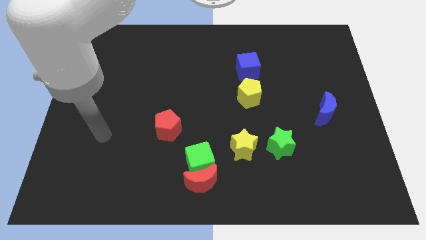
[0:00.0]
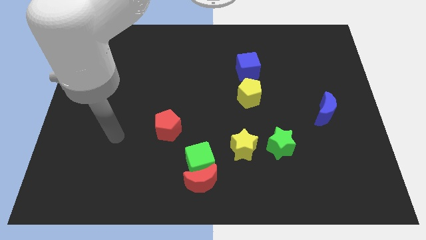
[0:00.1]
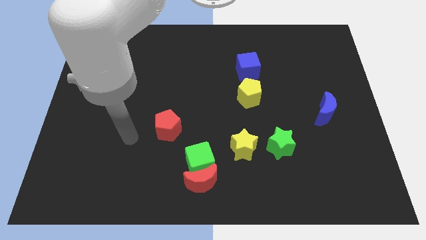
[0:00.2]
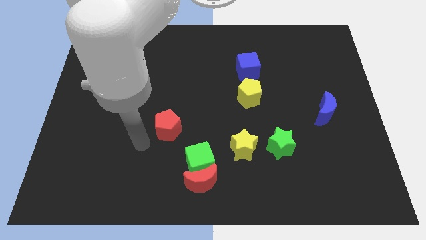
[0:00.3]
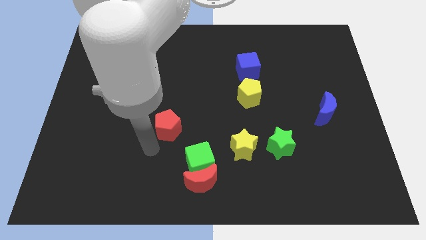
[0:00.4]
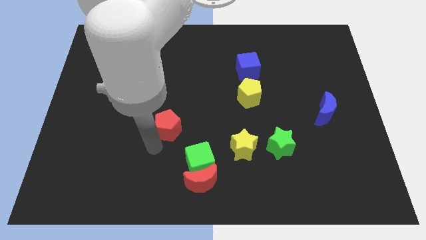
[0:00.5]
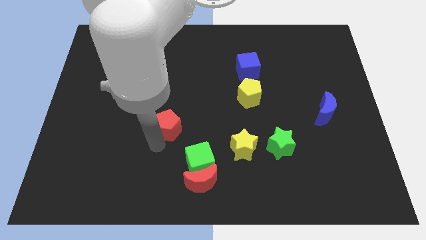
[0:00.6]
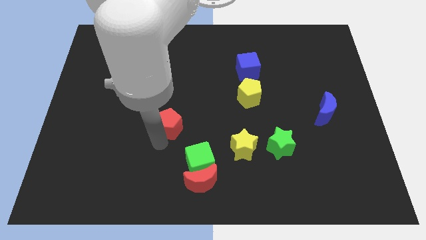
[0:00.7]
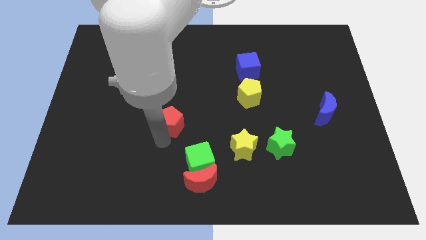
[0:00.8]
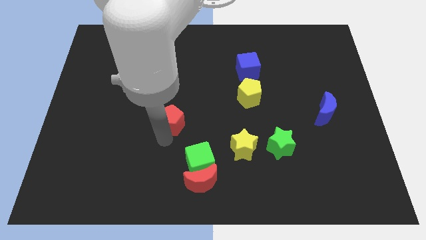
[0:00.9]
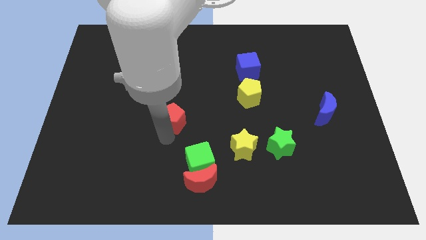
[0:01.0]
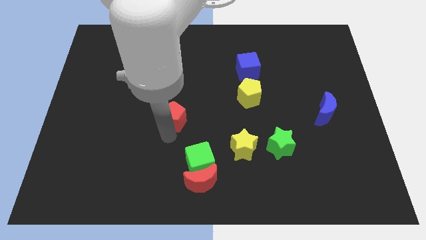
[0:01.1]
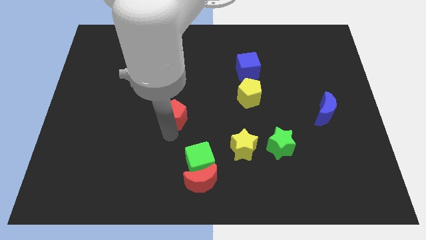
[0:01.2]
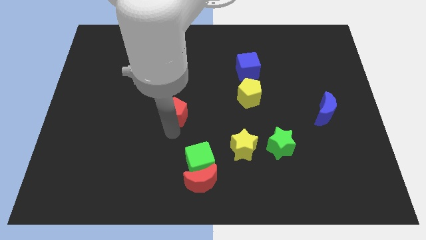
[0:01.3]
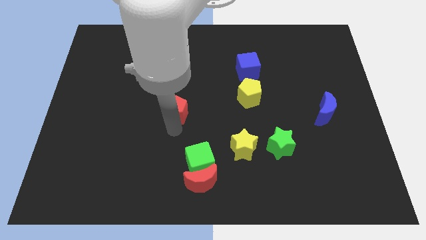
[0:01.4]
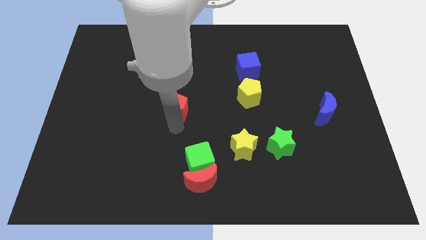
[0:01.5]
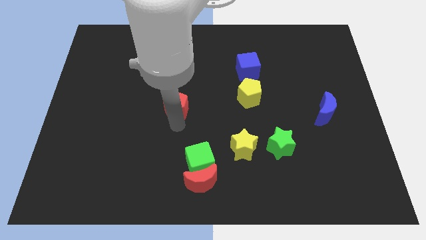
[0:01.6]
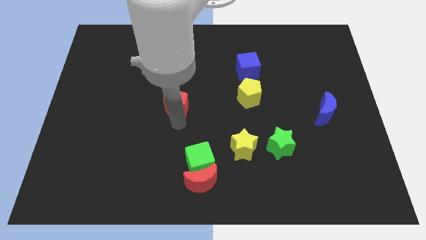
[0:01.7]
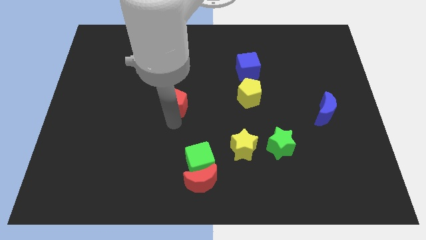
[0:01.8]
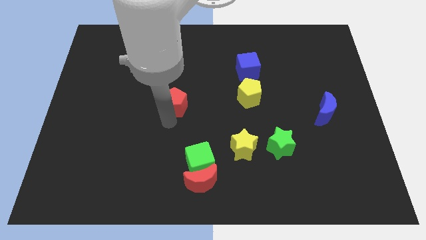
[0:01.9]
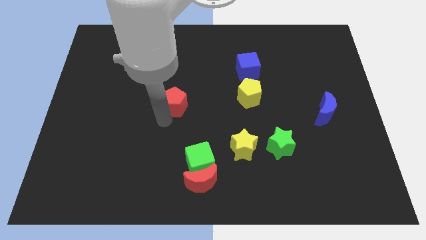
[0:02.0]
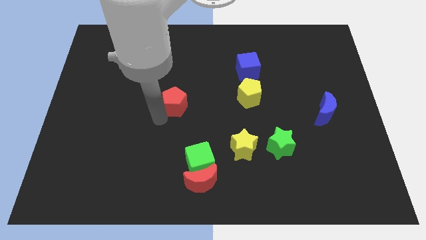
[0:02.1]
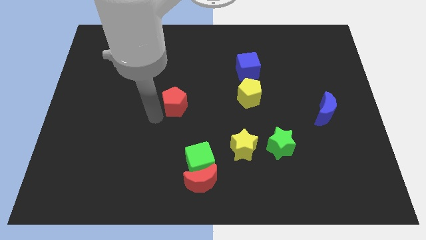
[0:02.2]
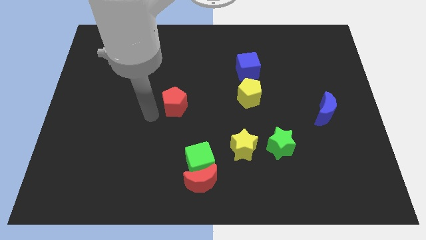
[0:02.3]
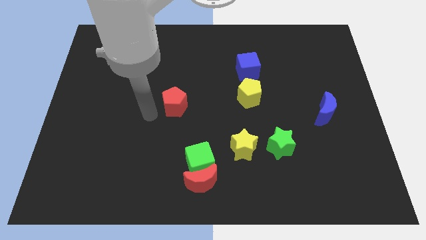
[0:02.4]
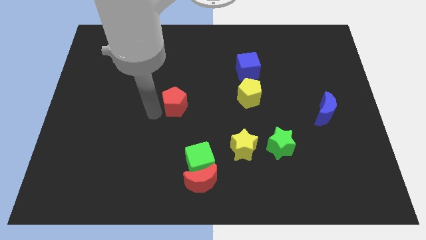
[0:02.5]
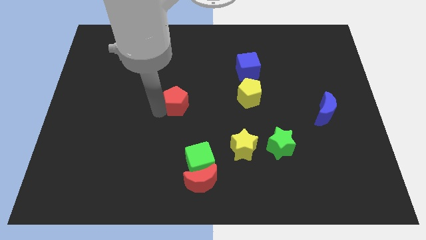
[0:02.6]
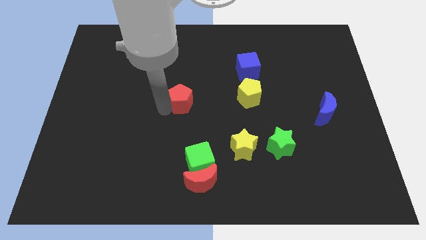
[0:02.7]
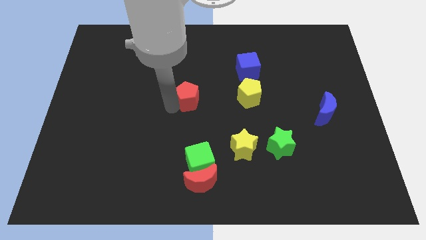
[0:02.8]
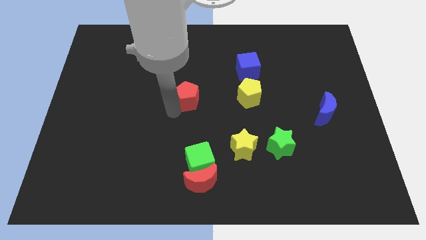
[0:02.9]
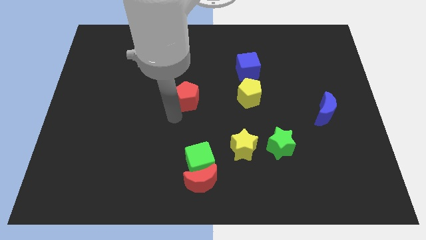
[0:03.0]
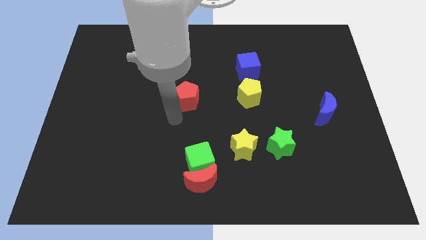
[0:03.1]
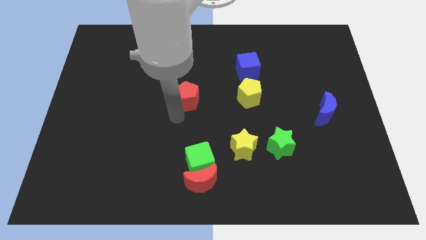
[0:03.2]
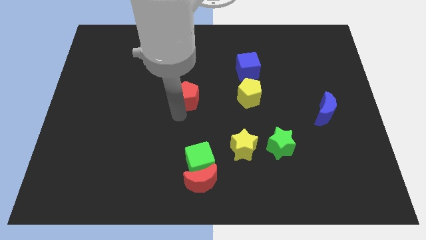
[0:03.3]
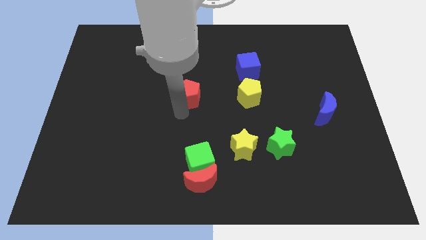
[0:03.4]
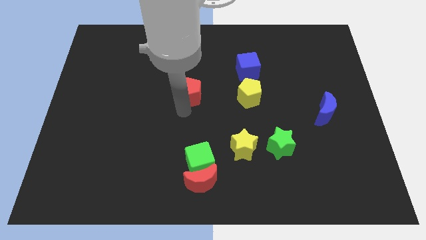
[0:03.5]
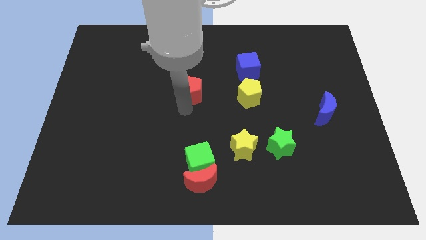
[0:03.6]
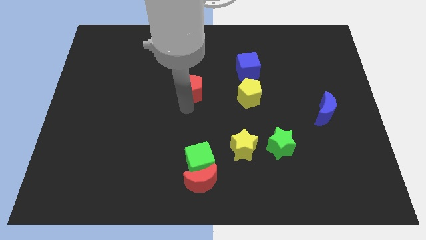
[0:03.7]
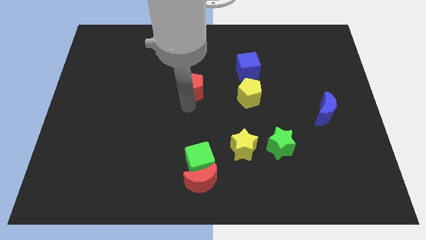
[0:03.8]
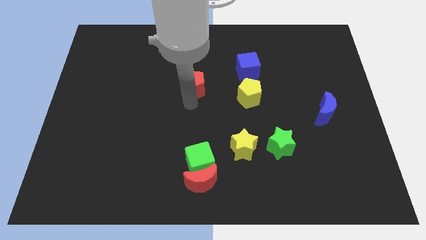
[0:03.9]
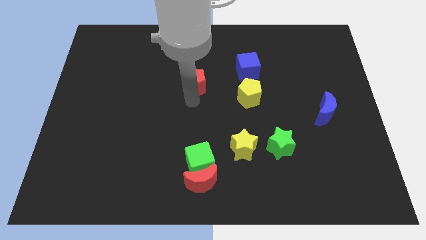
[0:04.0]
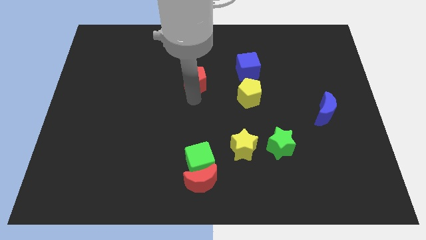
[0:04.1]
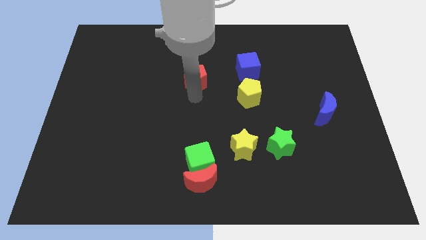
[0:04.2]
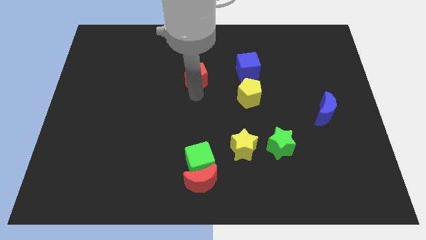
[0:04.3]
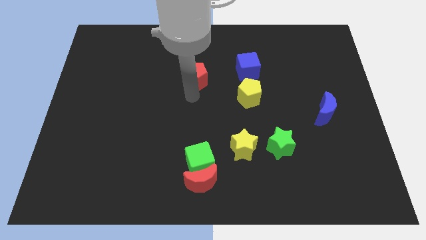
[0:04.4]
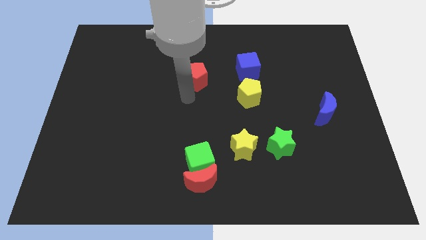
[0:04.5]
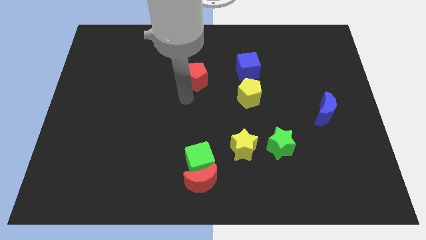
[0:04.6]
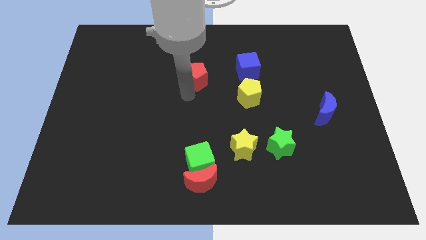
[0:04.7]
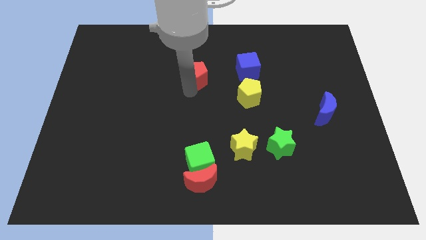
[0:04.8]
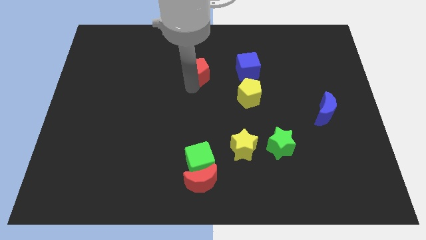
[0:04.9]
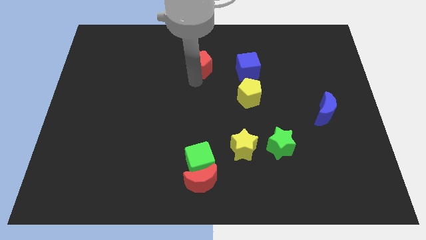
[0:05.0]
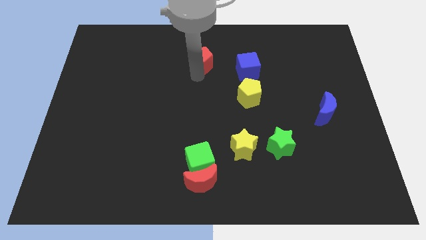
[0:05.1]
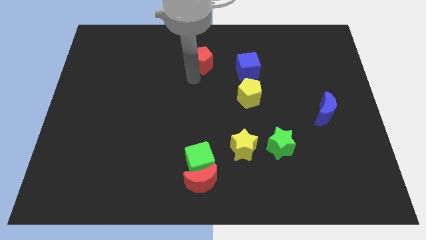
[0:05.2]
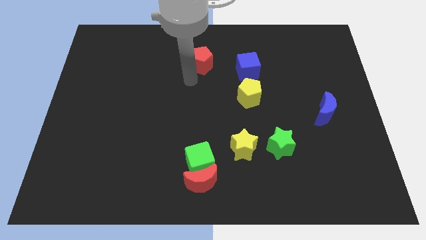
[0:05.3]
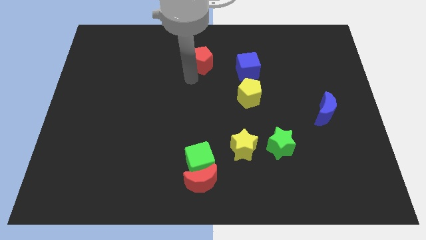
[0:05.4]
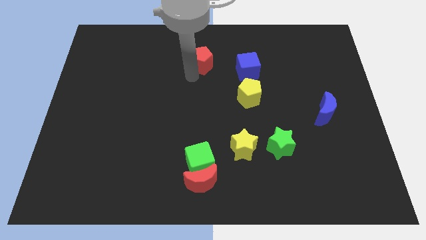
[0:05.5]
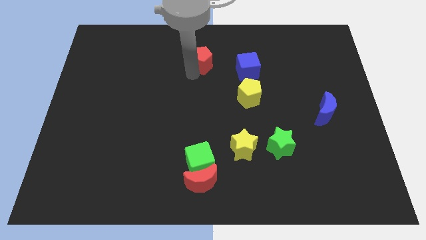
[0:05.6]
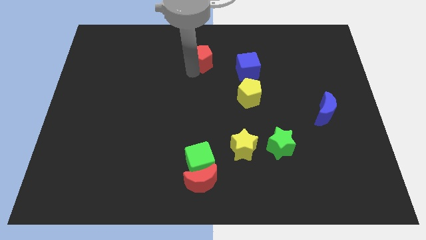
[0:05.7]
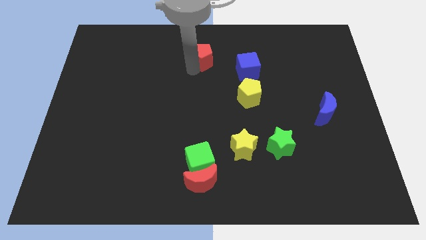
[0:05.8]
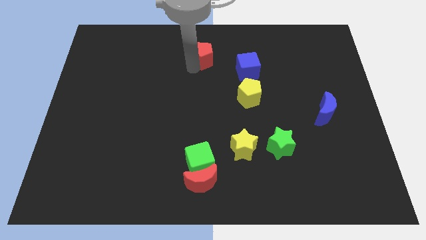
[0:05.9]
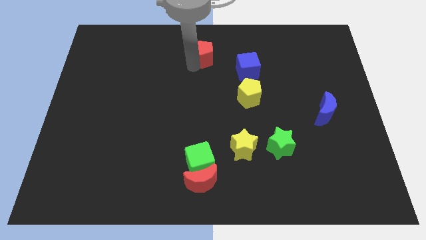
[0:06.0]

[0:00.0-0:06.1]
move the red pentagon to the top

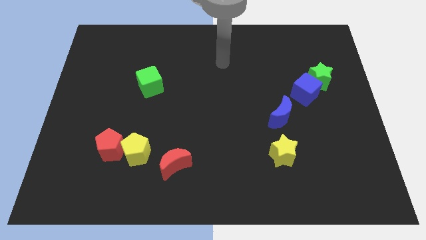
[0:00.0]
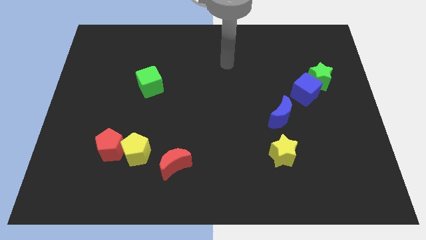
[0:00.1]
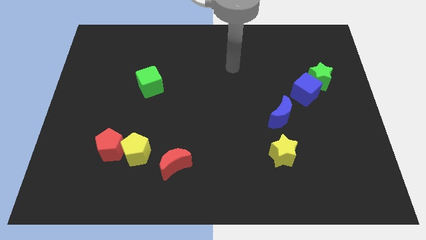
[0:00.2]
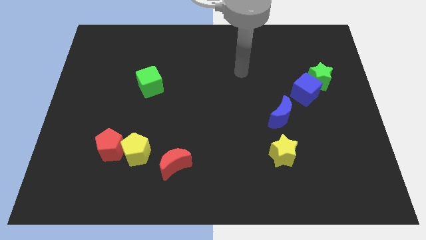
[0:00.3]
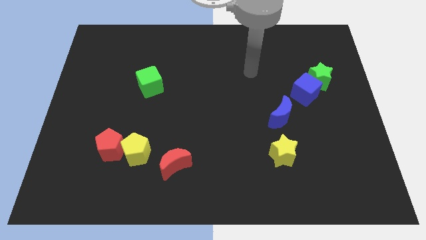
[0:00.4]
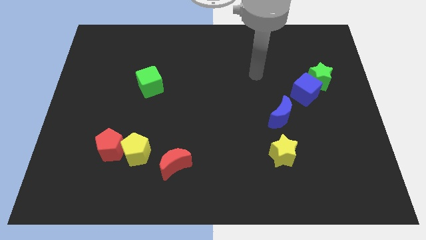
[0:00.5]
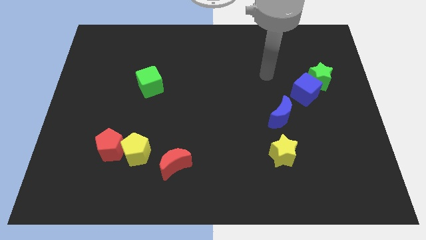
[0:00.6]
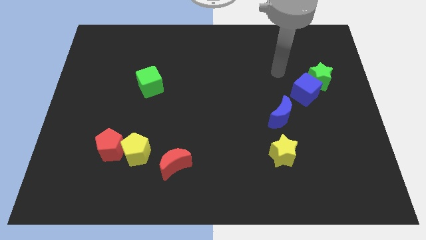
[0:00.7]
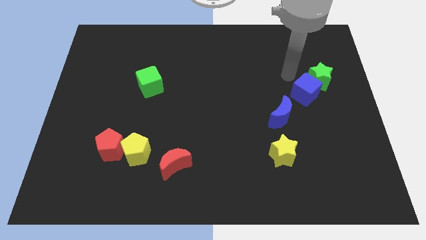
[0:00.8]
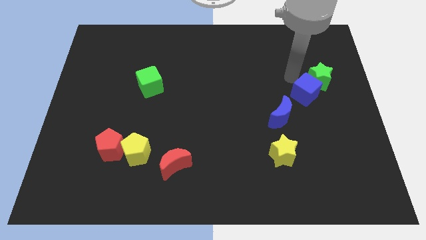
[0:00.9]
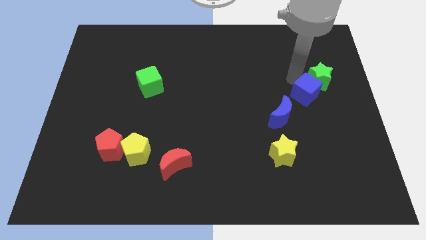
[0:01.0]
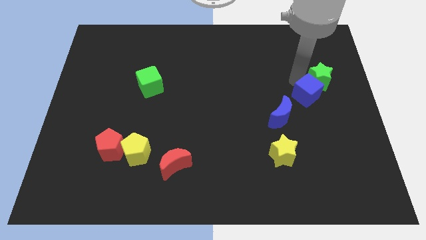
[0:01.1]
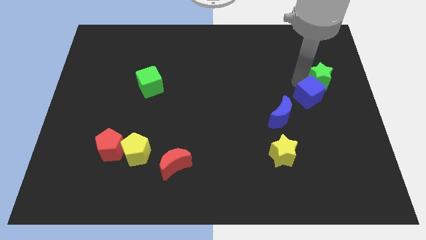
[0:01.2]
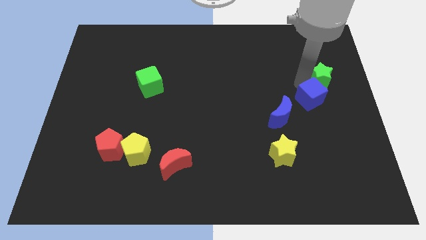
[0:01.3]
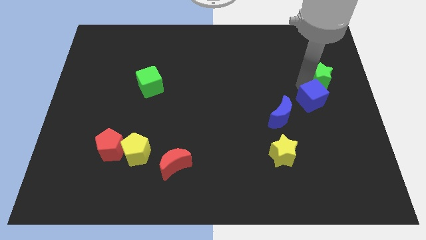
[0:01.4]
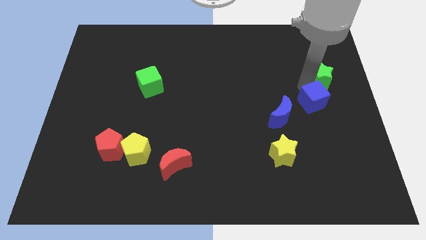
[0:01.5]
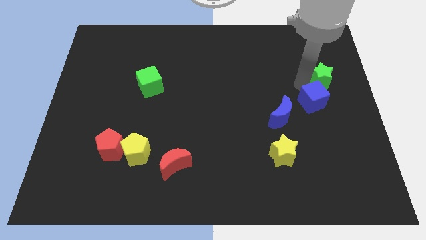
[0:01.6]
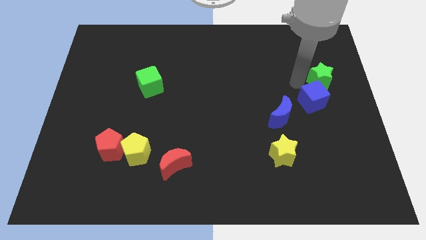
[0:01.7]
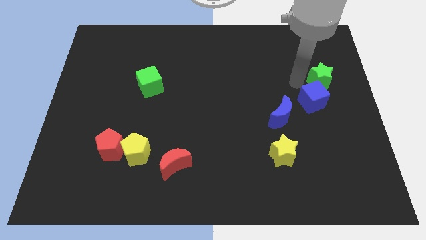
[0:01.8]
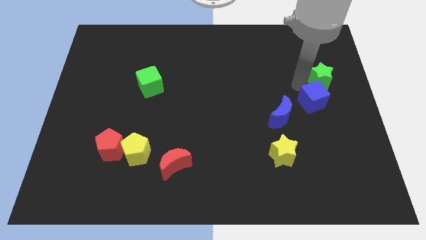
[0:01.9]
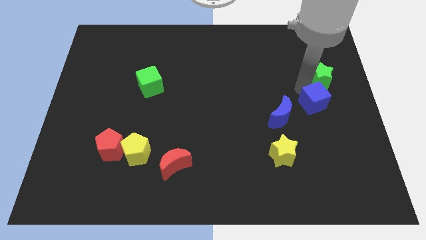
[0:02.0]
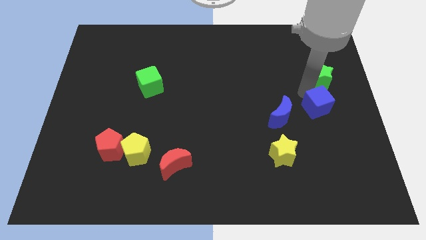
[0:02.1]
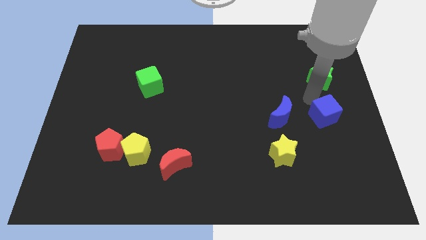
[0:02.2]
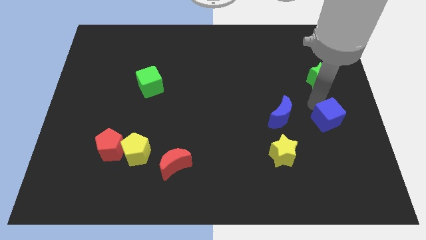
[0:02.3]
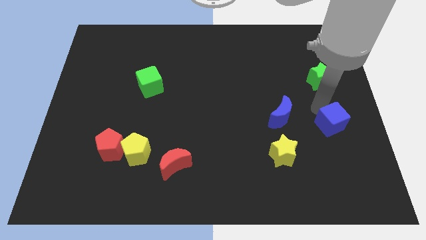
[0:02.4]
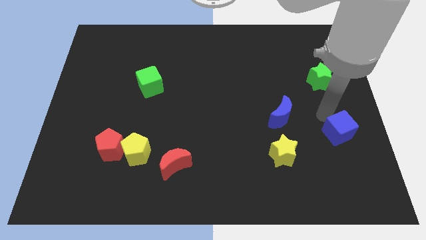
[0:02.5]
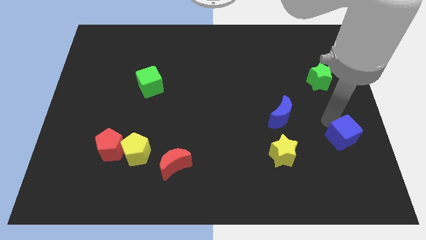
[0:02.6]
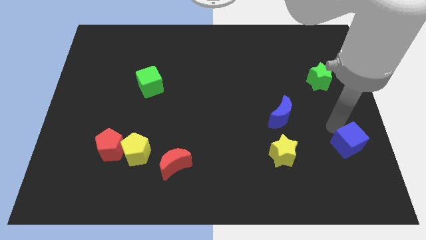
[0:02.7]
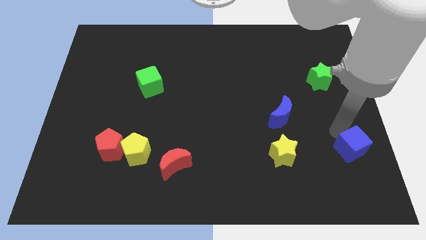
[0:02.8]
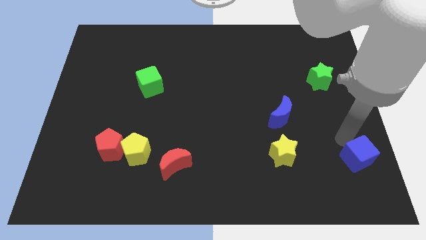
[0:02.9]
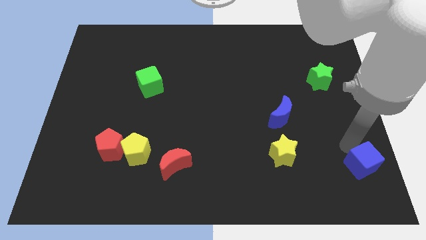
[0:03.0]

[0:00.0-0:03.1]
move the blue cube to the bottom right of the board
